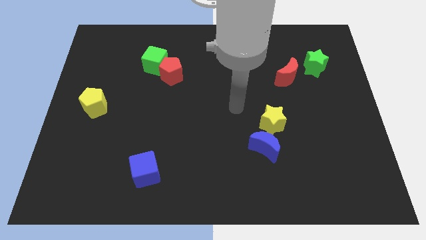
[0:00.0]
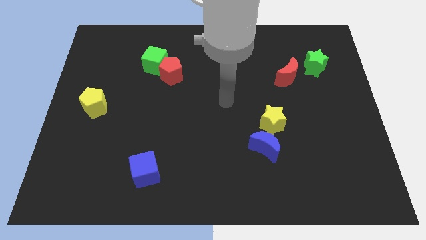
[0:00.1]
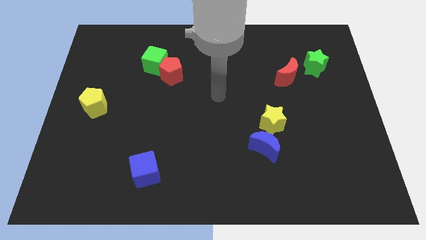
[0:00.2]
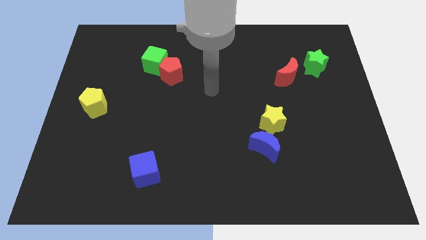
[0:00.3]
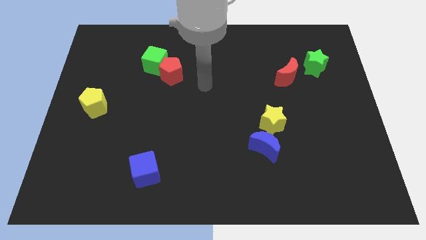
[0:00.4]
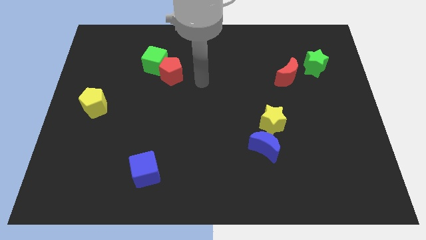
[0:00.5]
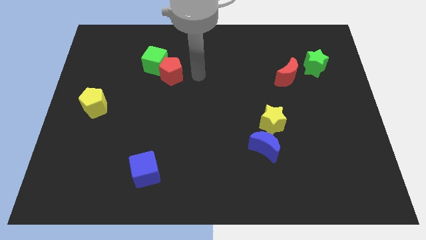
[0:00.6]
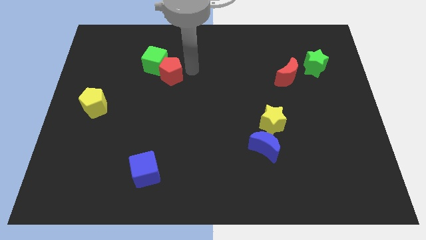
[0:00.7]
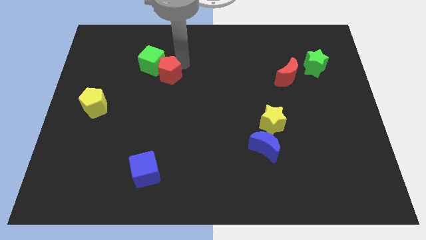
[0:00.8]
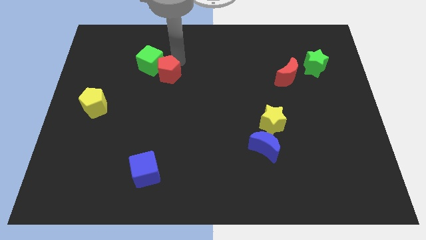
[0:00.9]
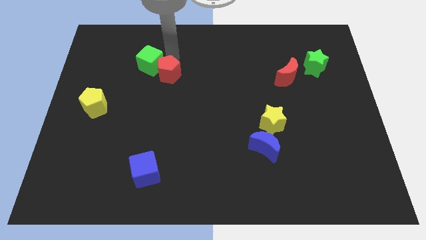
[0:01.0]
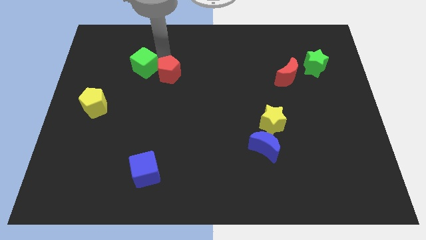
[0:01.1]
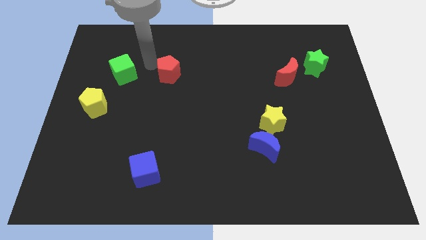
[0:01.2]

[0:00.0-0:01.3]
move the red pentagon away from the green cube

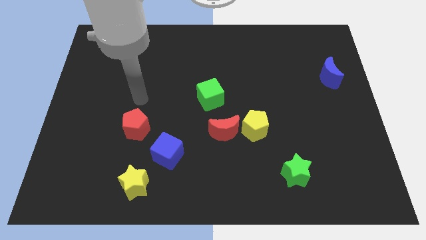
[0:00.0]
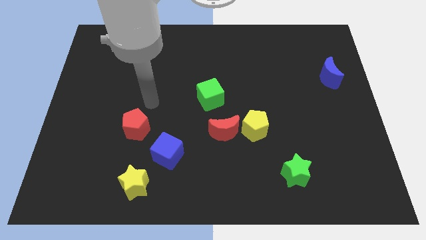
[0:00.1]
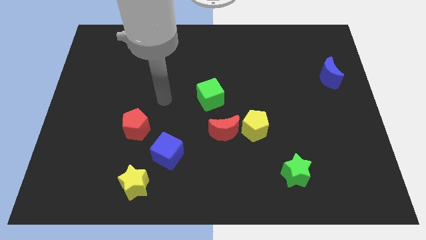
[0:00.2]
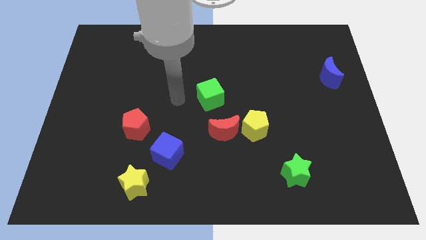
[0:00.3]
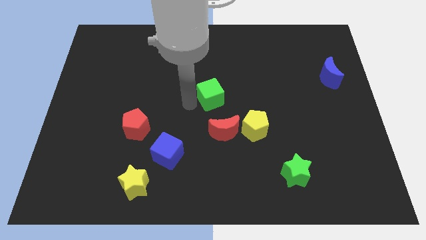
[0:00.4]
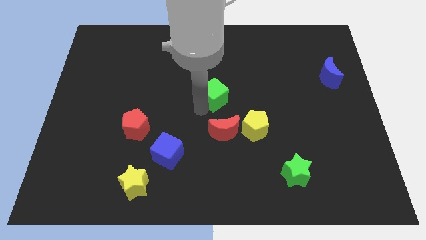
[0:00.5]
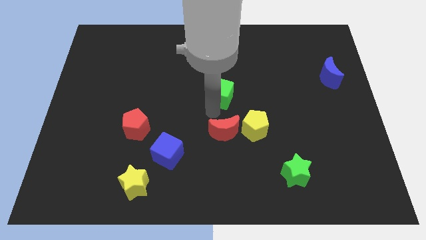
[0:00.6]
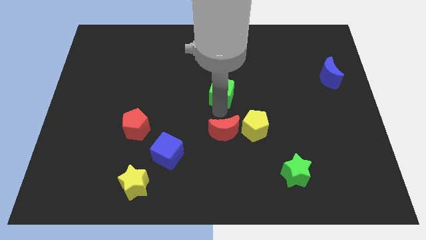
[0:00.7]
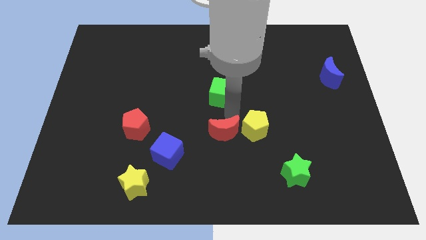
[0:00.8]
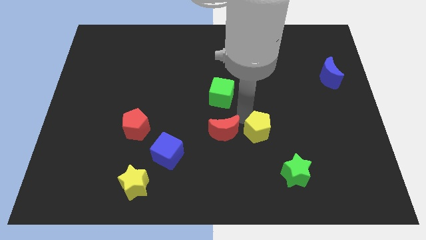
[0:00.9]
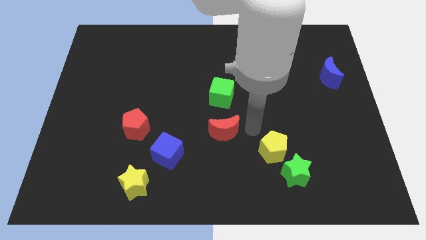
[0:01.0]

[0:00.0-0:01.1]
pull the red moon apart from the yellow pentagon

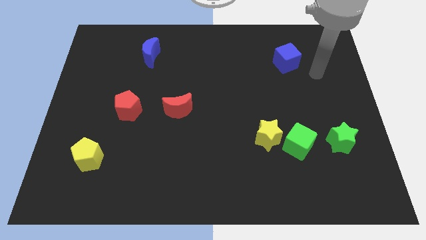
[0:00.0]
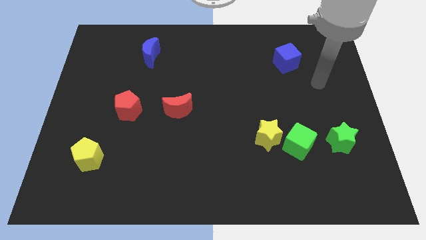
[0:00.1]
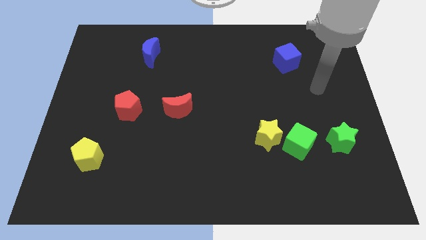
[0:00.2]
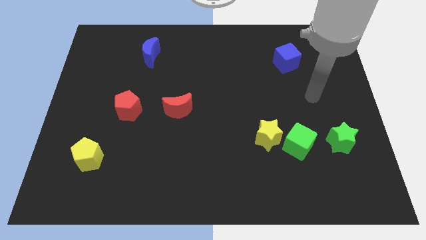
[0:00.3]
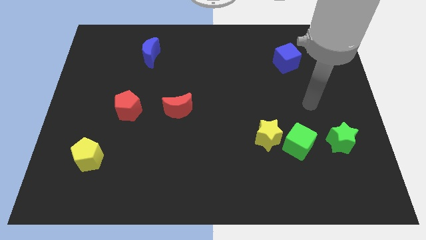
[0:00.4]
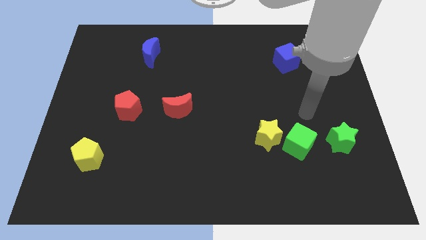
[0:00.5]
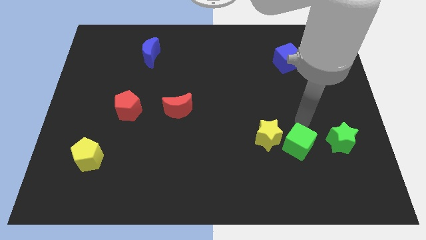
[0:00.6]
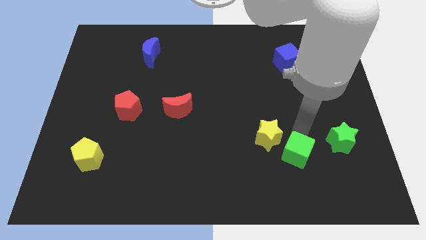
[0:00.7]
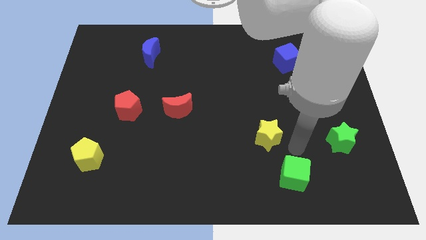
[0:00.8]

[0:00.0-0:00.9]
separate the yellow star from the green cube

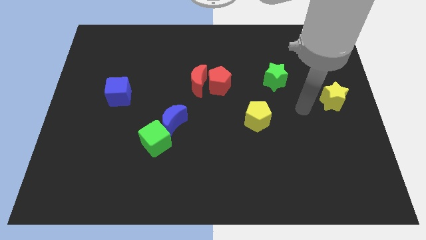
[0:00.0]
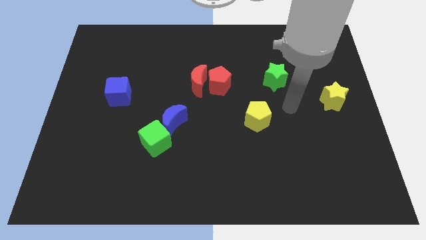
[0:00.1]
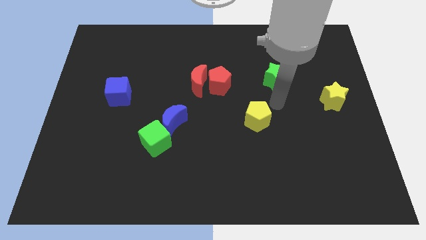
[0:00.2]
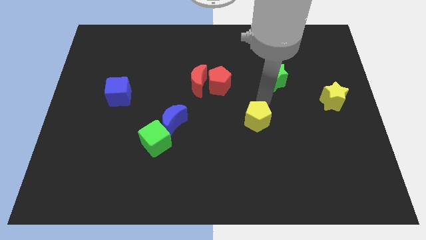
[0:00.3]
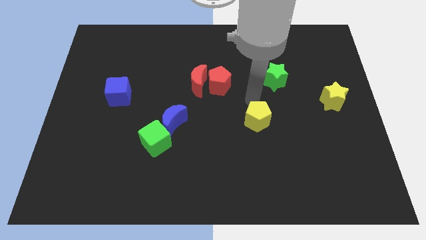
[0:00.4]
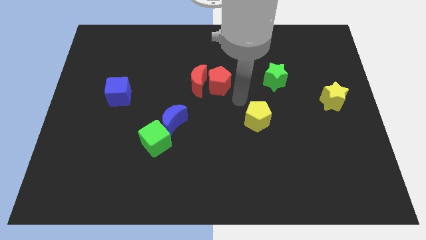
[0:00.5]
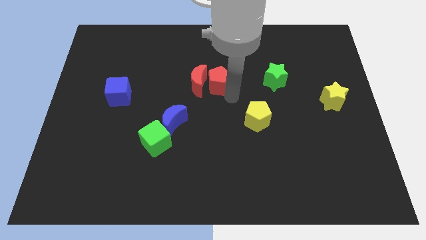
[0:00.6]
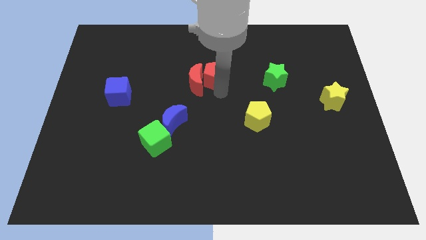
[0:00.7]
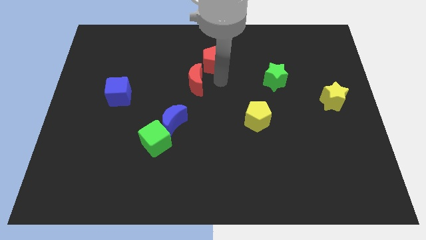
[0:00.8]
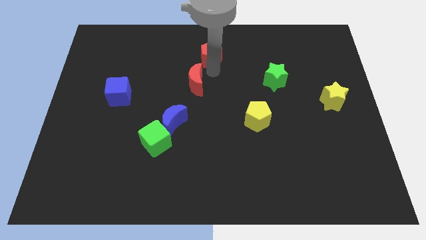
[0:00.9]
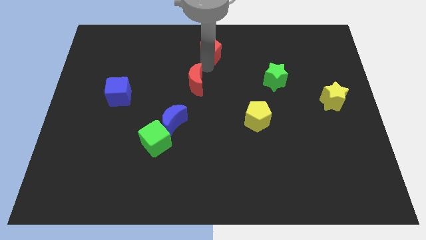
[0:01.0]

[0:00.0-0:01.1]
separate the red moon from the red pentagon

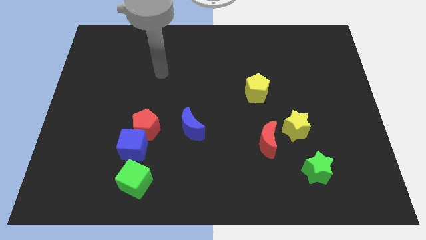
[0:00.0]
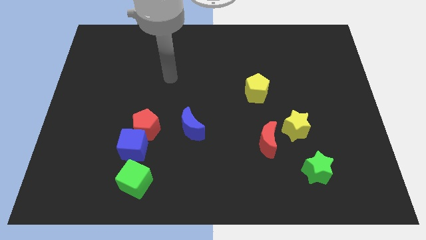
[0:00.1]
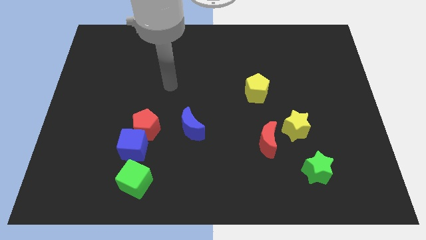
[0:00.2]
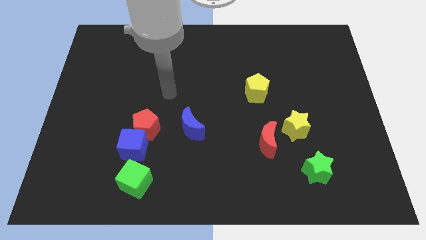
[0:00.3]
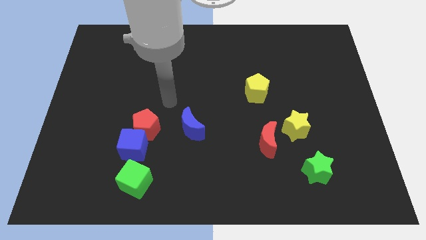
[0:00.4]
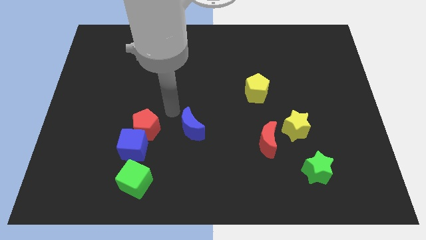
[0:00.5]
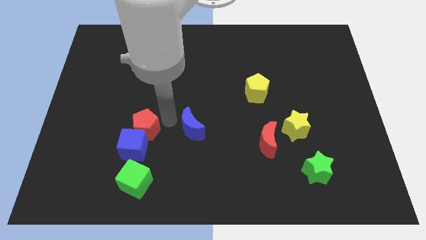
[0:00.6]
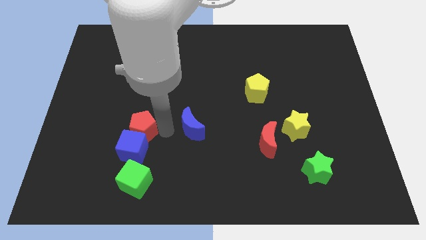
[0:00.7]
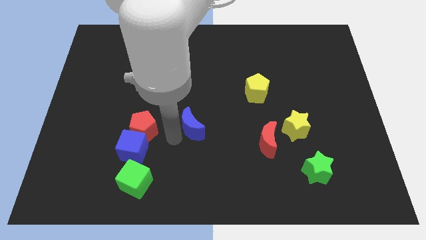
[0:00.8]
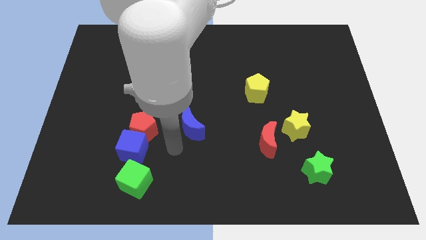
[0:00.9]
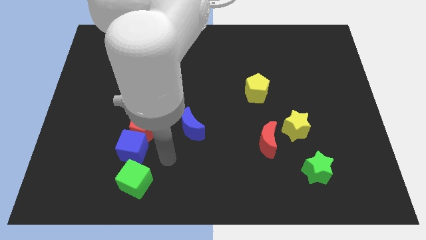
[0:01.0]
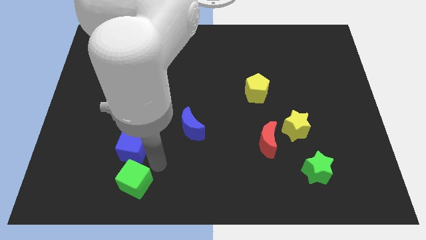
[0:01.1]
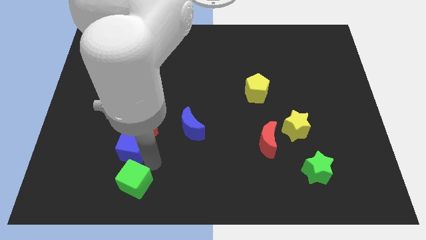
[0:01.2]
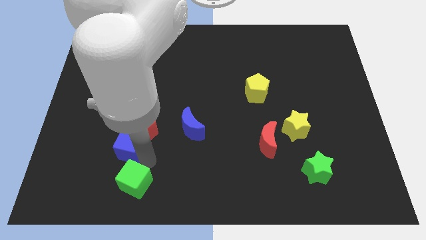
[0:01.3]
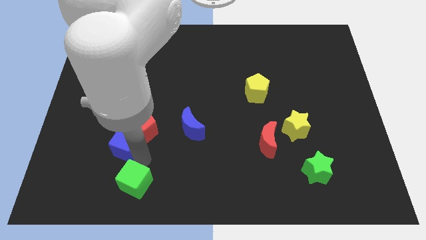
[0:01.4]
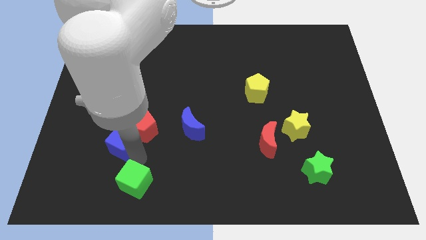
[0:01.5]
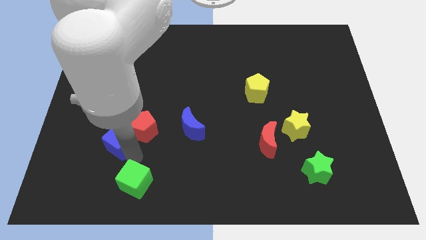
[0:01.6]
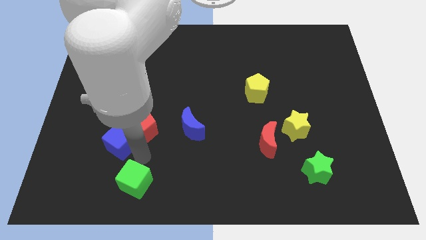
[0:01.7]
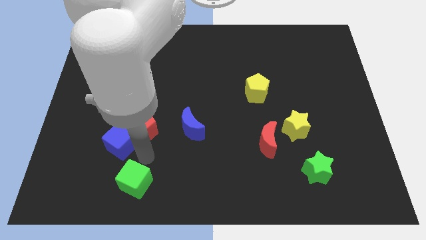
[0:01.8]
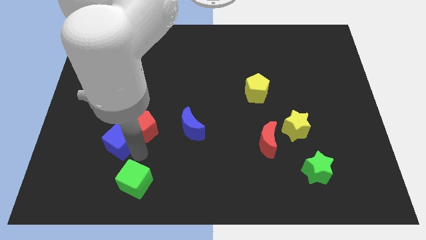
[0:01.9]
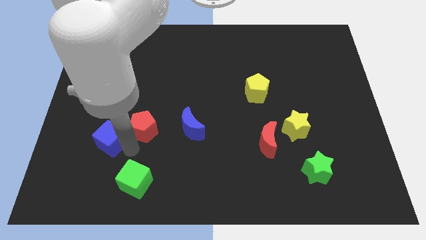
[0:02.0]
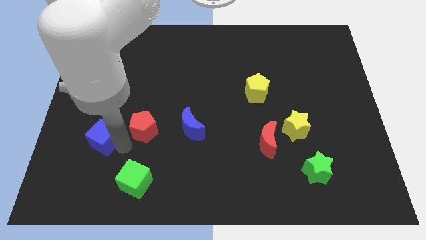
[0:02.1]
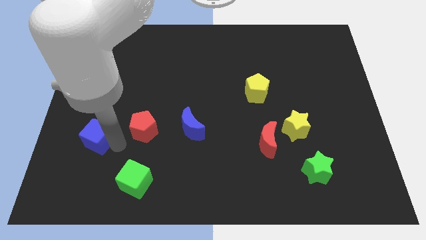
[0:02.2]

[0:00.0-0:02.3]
pull the blue cube apart from the red pentagon and green cube

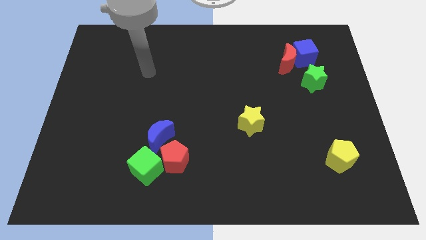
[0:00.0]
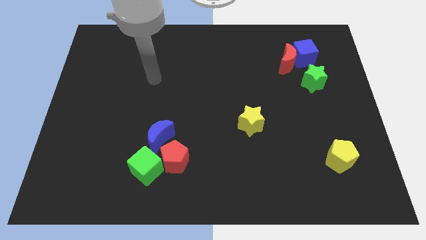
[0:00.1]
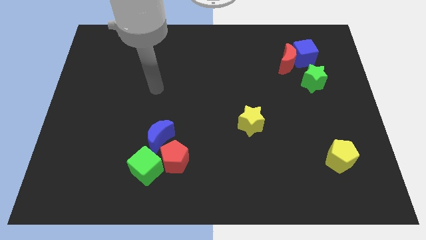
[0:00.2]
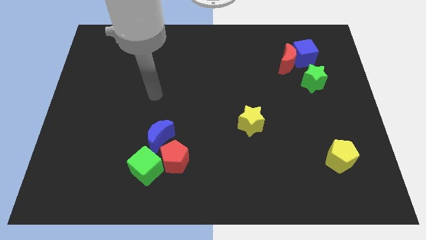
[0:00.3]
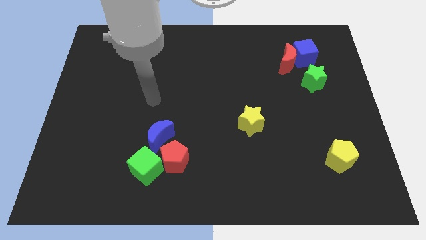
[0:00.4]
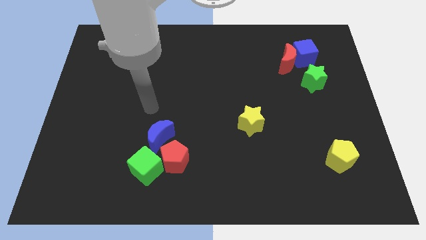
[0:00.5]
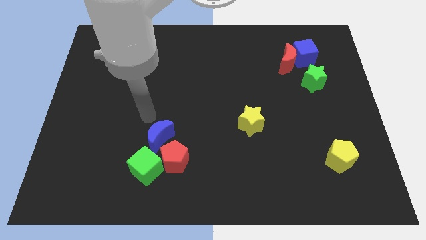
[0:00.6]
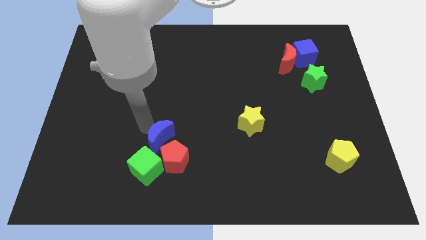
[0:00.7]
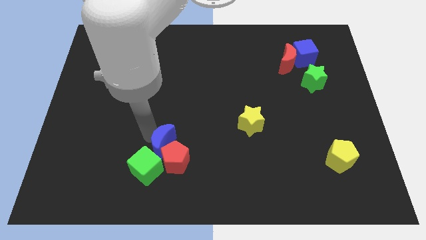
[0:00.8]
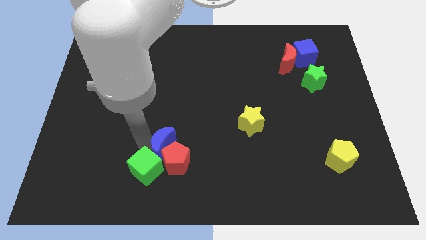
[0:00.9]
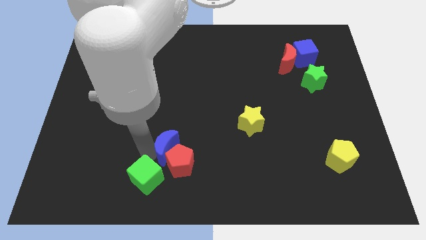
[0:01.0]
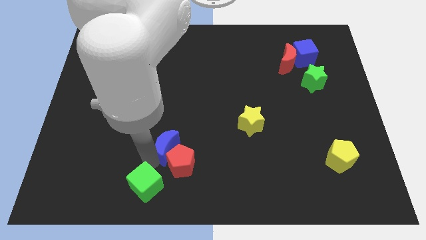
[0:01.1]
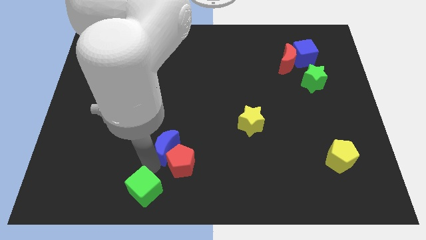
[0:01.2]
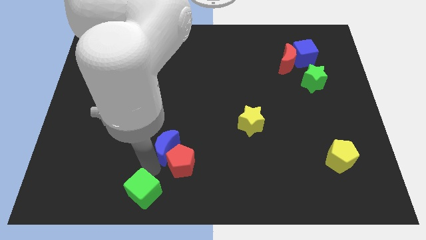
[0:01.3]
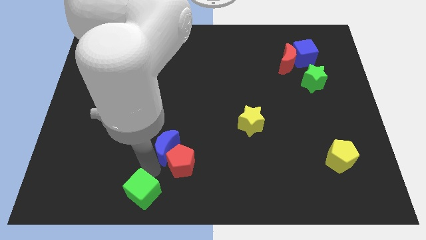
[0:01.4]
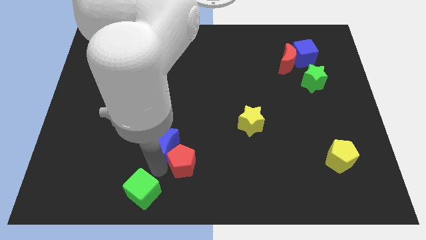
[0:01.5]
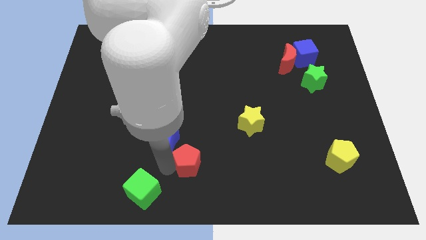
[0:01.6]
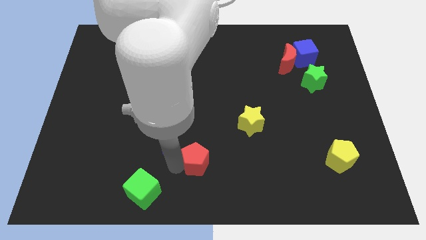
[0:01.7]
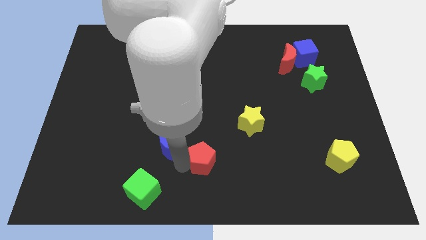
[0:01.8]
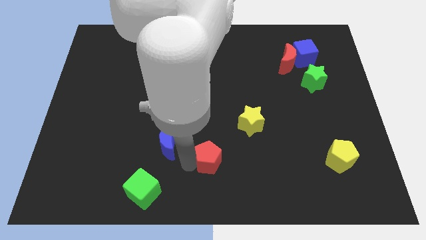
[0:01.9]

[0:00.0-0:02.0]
move the red pentagon away from the green cube and blue moon

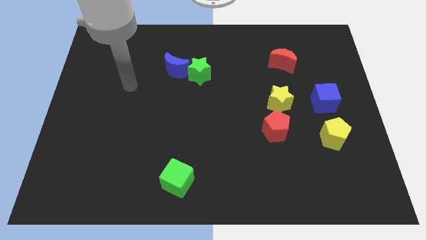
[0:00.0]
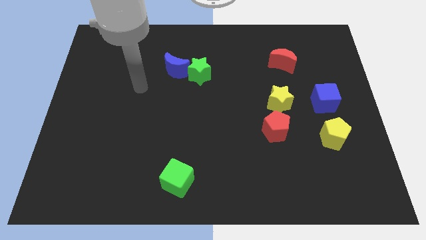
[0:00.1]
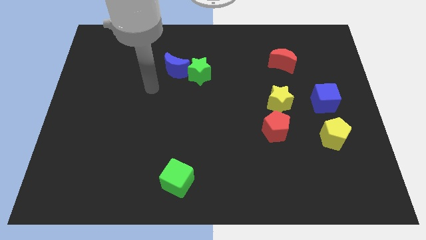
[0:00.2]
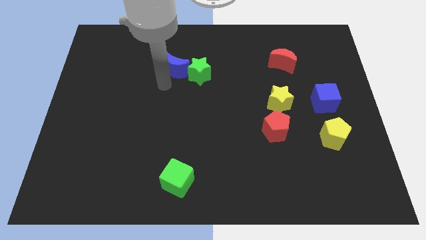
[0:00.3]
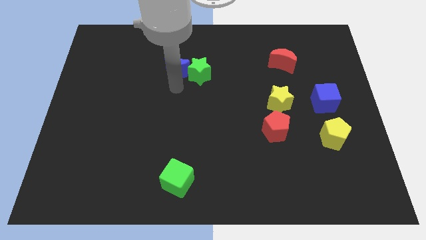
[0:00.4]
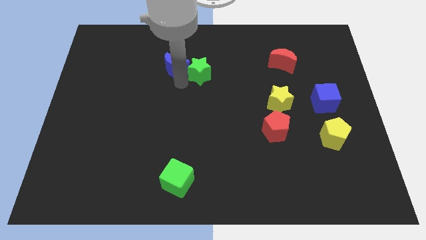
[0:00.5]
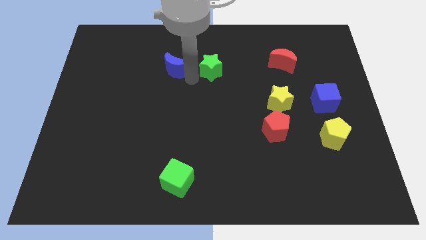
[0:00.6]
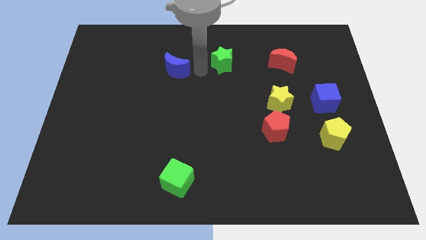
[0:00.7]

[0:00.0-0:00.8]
pull the blue moon apart from the green star
